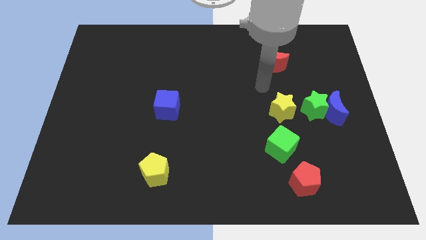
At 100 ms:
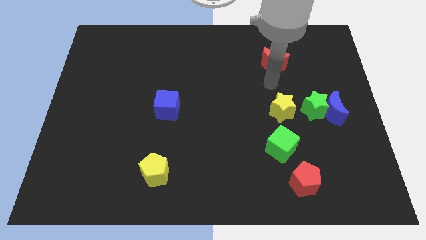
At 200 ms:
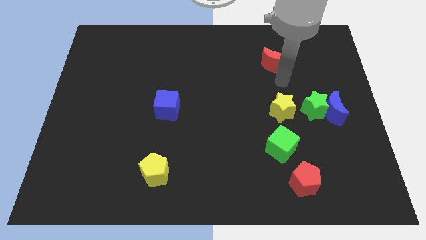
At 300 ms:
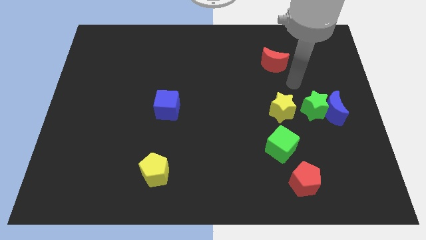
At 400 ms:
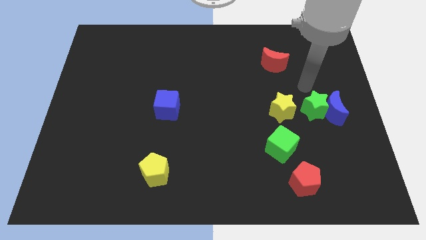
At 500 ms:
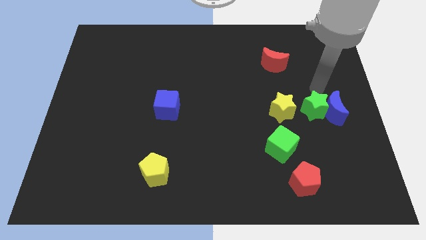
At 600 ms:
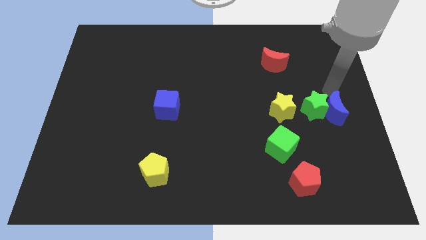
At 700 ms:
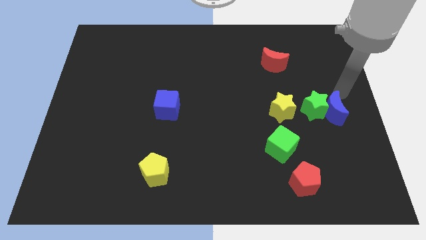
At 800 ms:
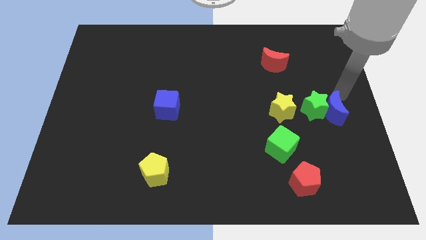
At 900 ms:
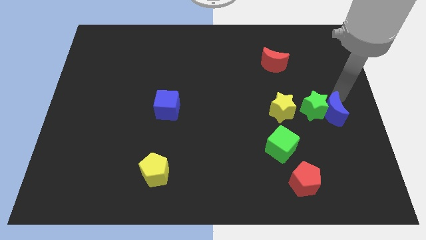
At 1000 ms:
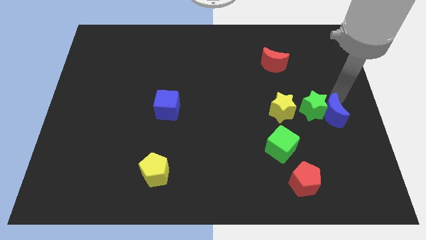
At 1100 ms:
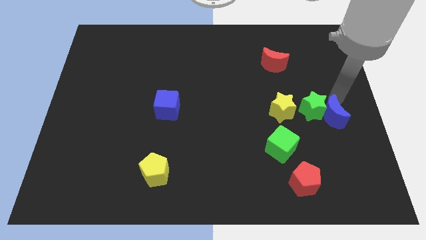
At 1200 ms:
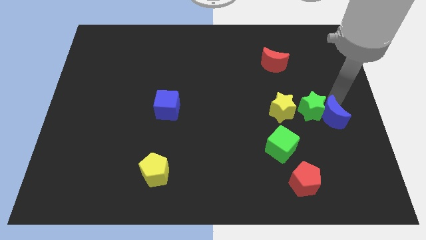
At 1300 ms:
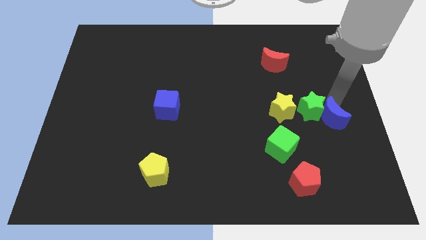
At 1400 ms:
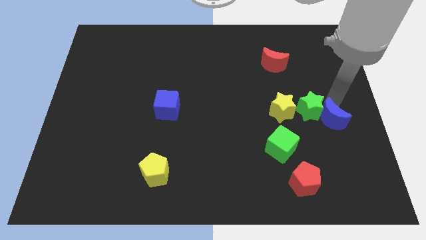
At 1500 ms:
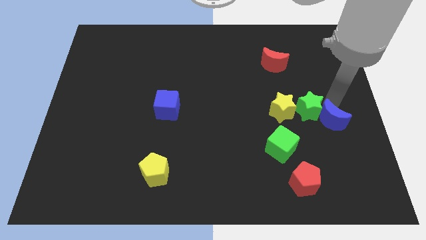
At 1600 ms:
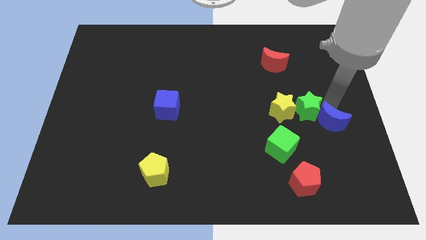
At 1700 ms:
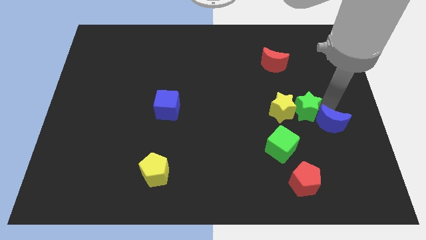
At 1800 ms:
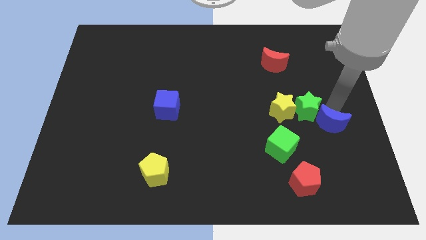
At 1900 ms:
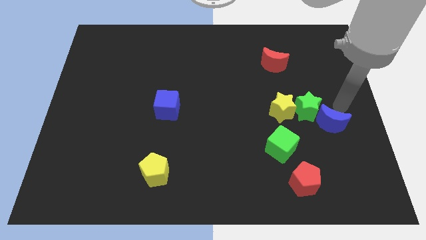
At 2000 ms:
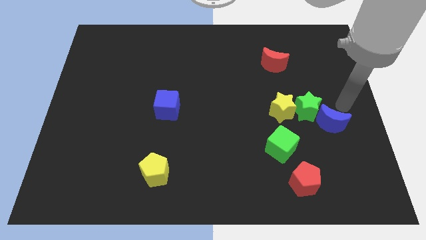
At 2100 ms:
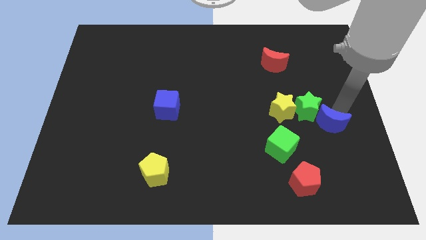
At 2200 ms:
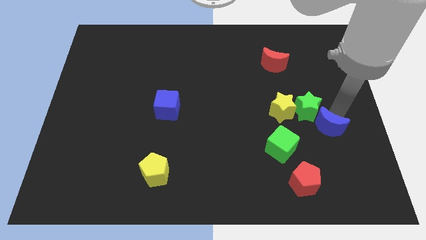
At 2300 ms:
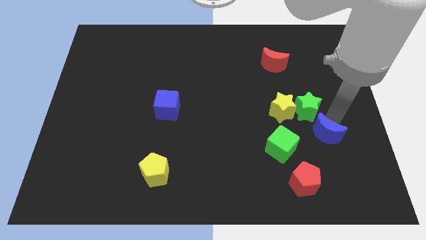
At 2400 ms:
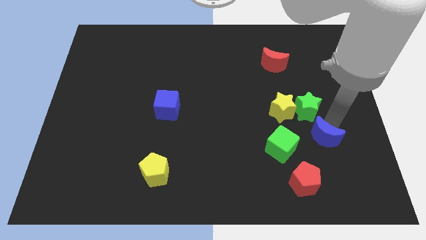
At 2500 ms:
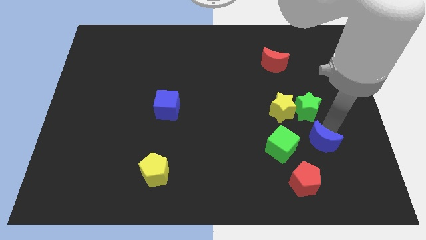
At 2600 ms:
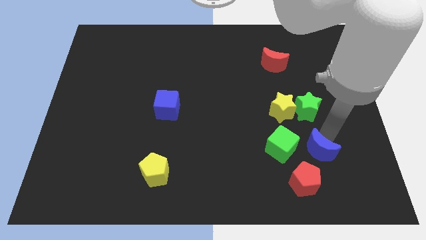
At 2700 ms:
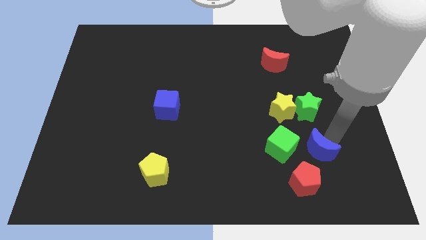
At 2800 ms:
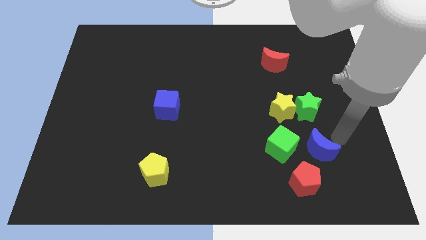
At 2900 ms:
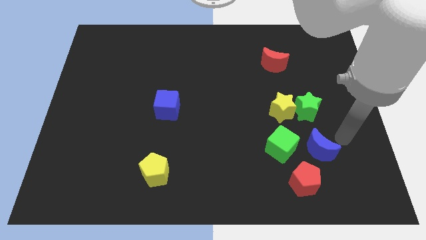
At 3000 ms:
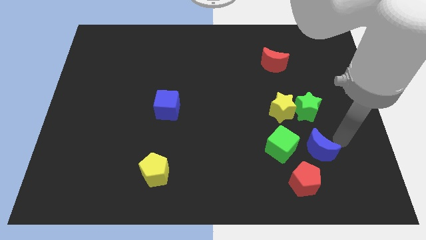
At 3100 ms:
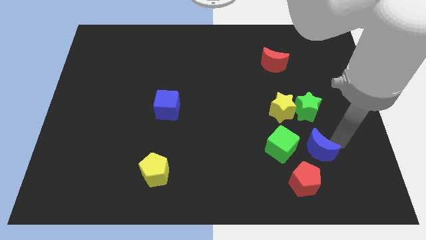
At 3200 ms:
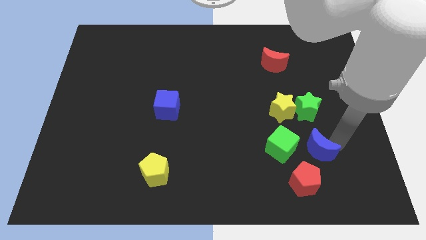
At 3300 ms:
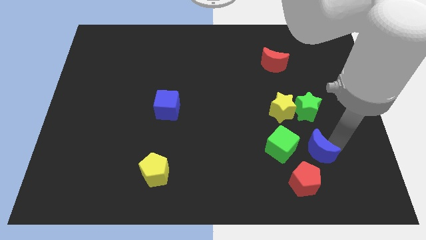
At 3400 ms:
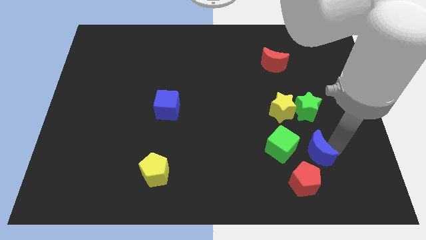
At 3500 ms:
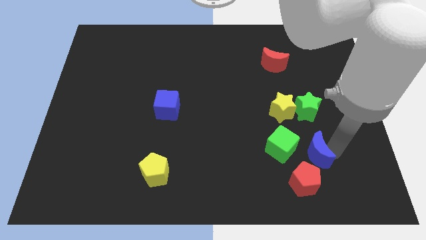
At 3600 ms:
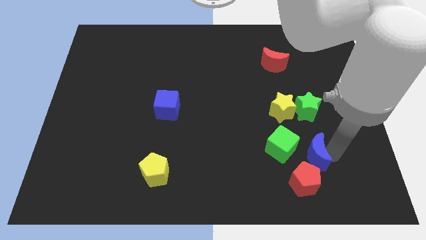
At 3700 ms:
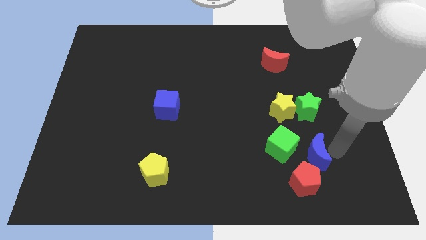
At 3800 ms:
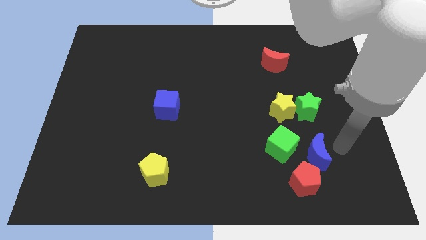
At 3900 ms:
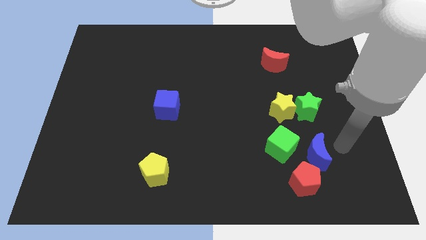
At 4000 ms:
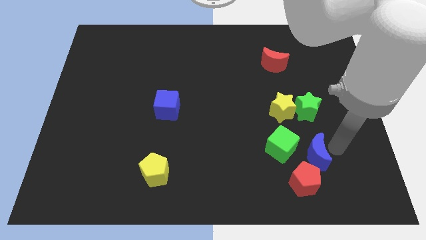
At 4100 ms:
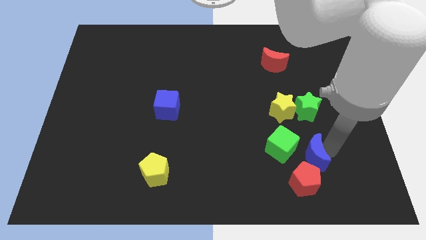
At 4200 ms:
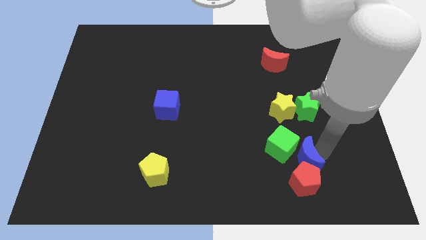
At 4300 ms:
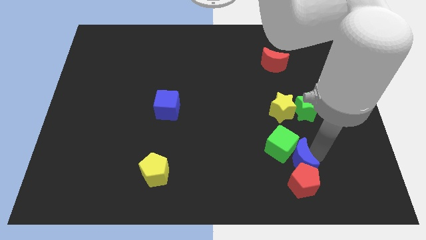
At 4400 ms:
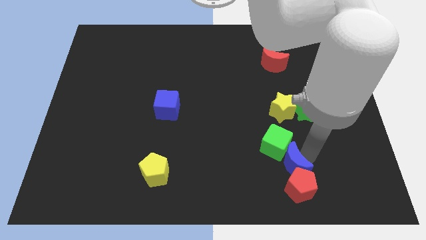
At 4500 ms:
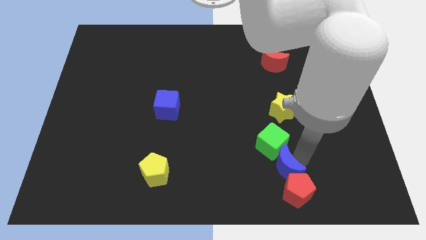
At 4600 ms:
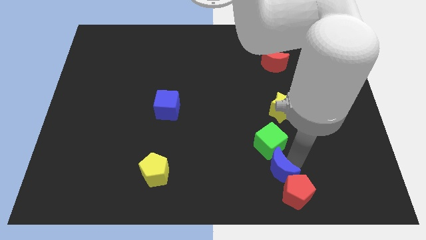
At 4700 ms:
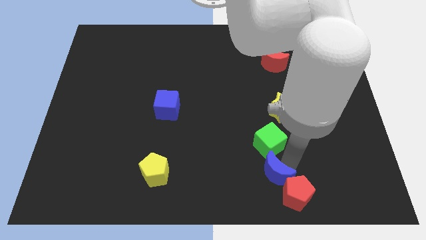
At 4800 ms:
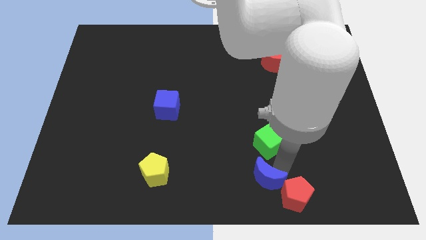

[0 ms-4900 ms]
put the blue moon to the bottom

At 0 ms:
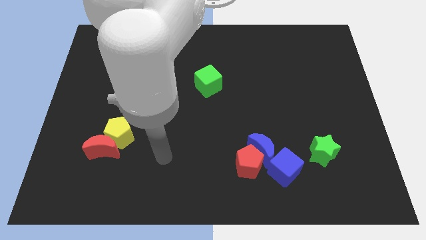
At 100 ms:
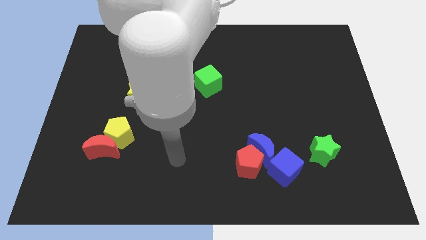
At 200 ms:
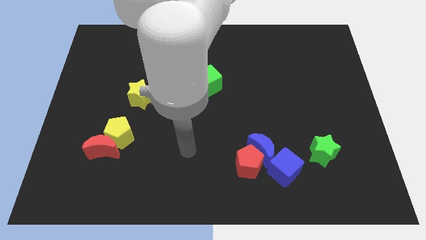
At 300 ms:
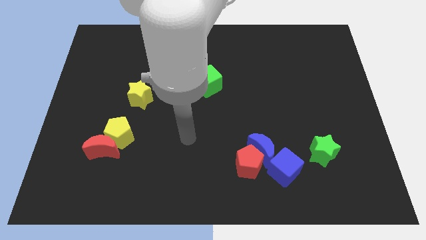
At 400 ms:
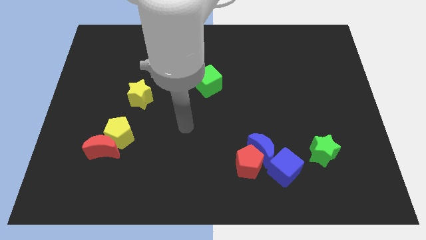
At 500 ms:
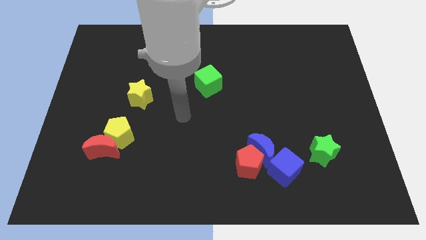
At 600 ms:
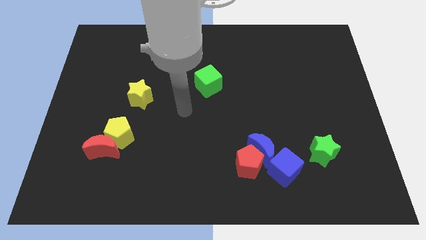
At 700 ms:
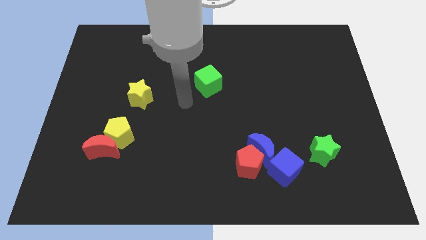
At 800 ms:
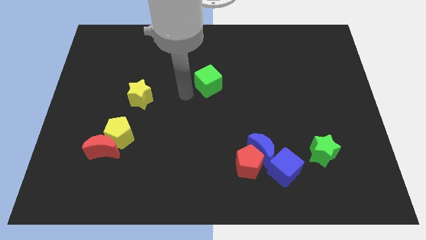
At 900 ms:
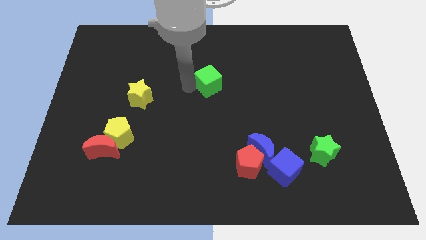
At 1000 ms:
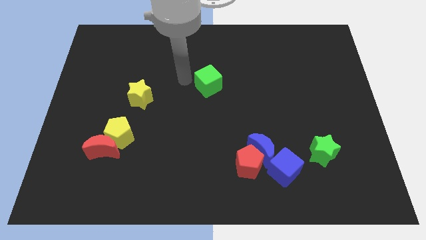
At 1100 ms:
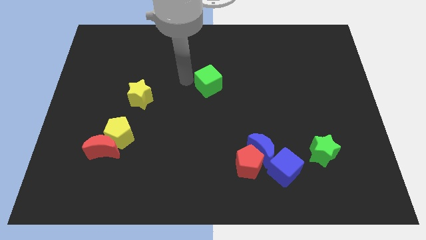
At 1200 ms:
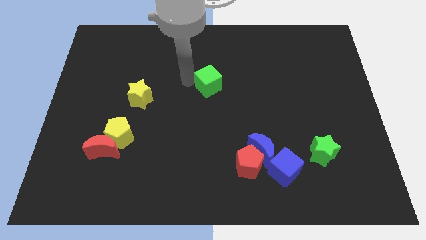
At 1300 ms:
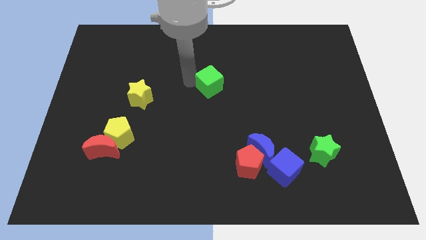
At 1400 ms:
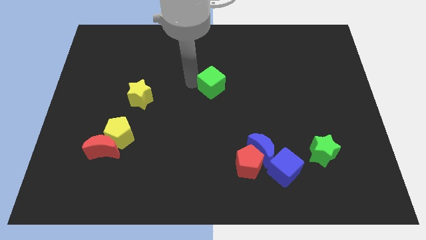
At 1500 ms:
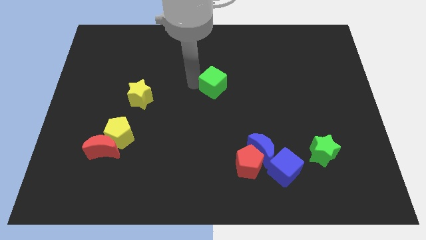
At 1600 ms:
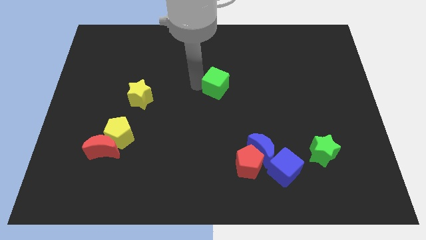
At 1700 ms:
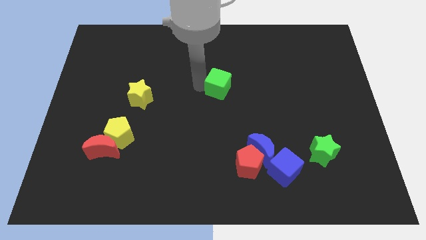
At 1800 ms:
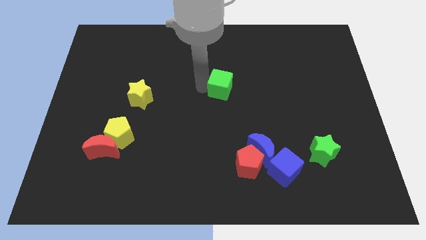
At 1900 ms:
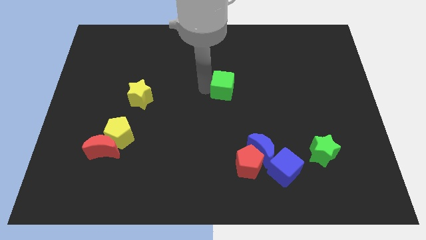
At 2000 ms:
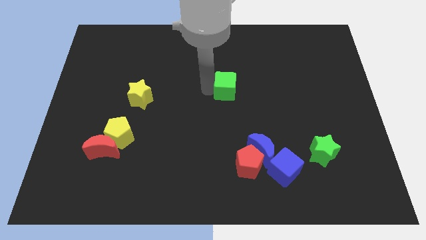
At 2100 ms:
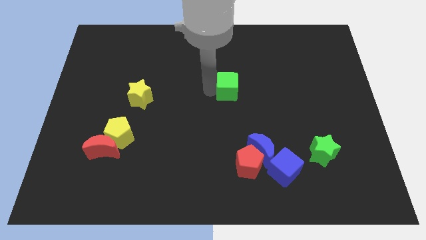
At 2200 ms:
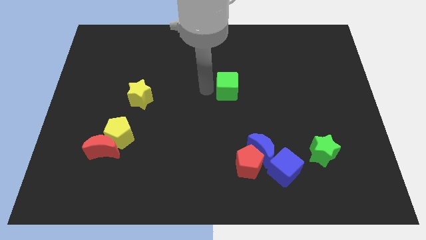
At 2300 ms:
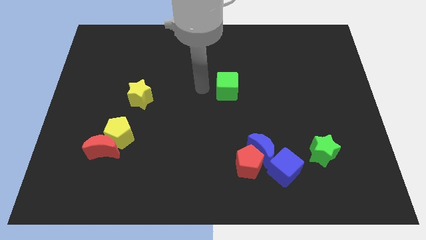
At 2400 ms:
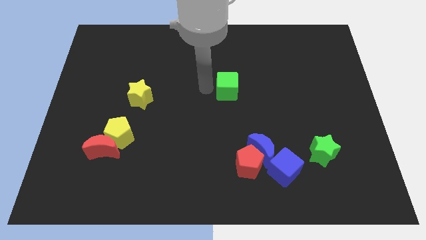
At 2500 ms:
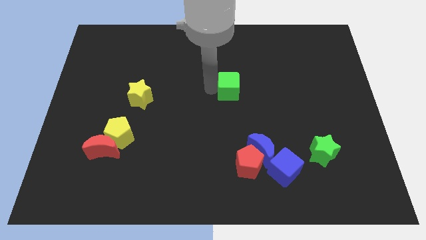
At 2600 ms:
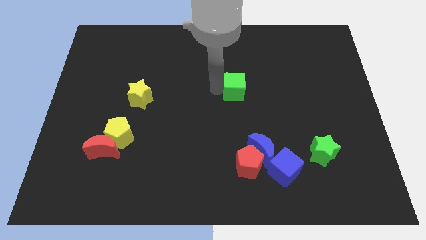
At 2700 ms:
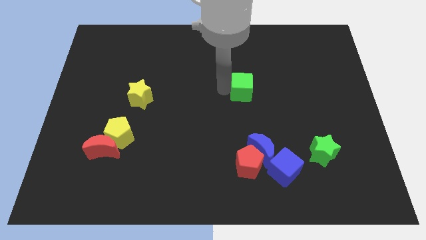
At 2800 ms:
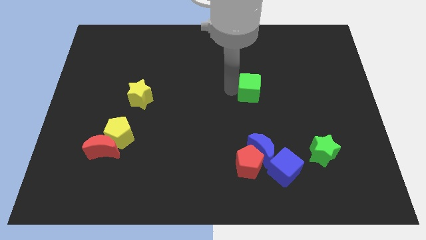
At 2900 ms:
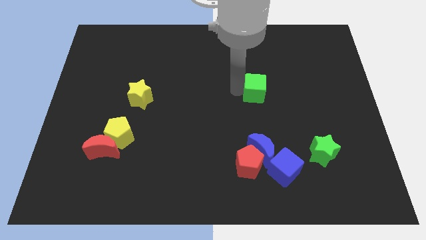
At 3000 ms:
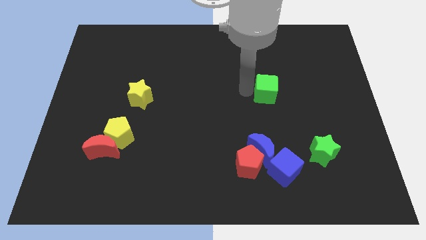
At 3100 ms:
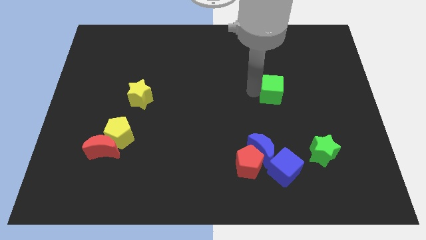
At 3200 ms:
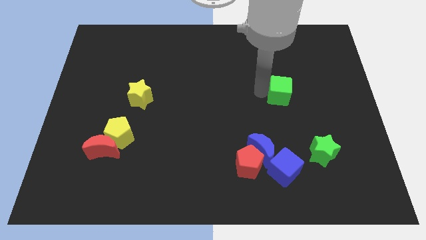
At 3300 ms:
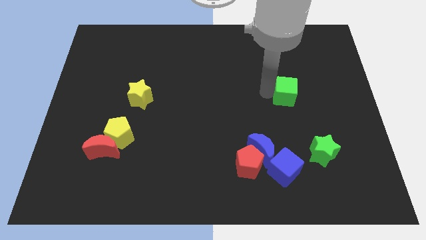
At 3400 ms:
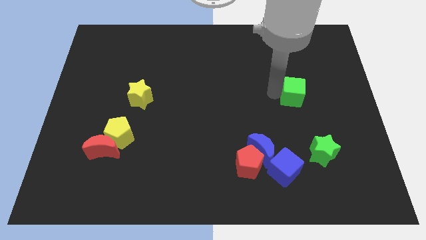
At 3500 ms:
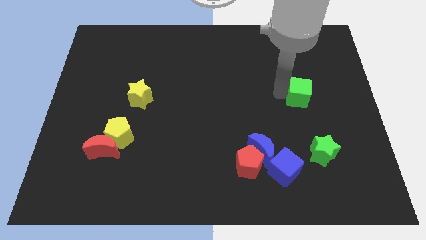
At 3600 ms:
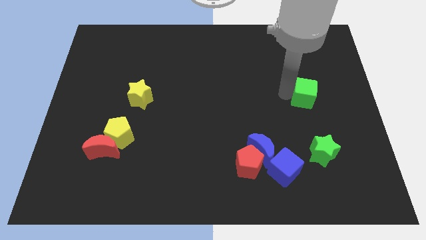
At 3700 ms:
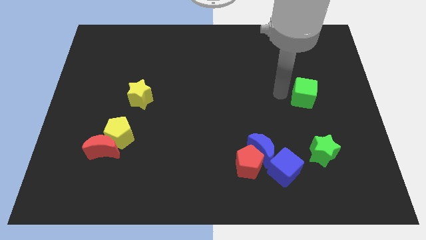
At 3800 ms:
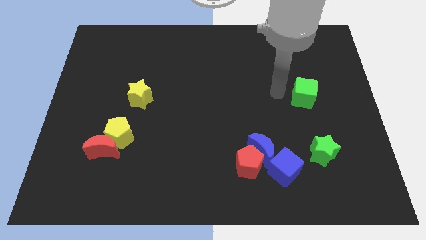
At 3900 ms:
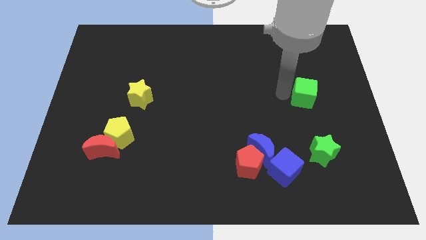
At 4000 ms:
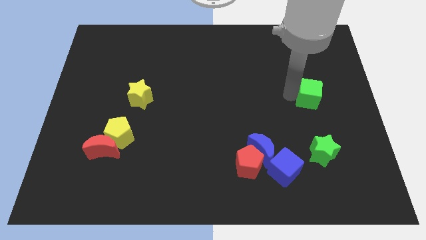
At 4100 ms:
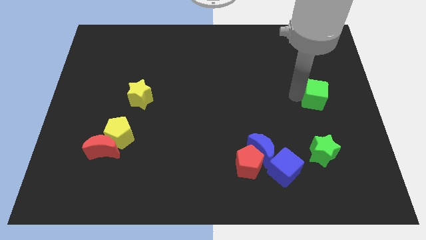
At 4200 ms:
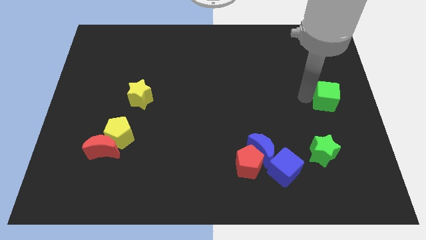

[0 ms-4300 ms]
slide the green cube to the right side
